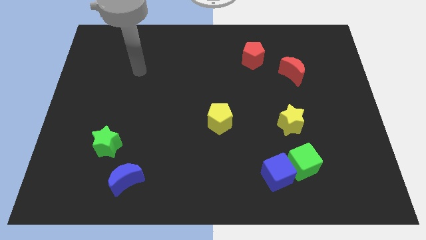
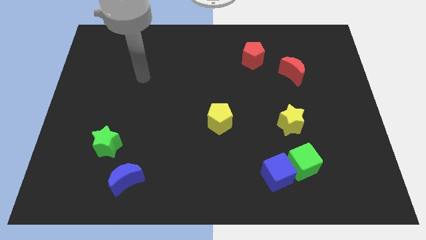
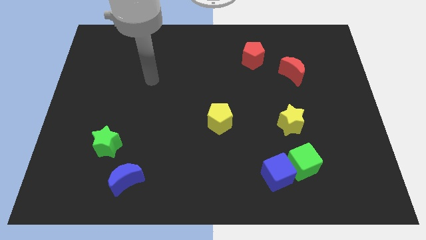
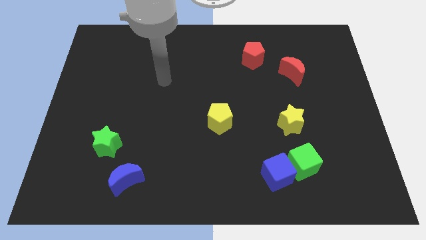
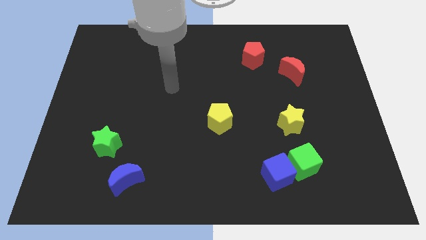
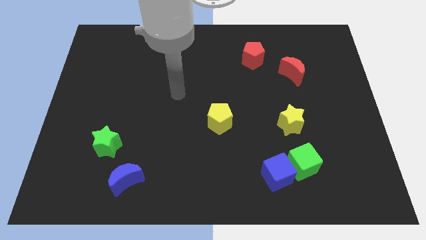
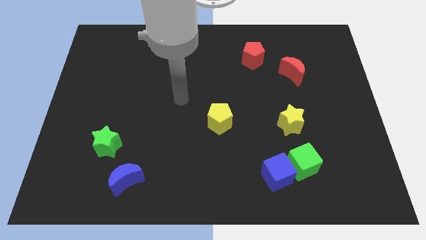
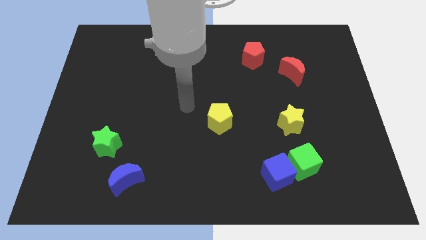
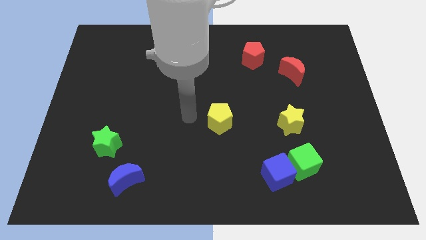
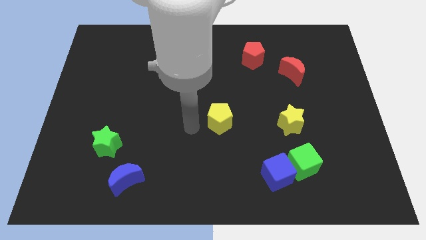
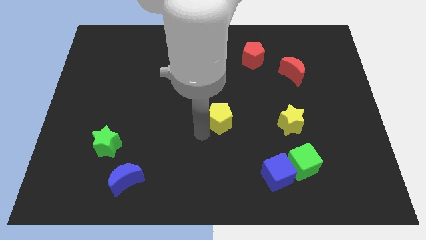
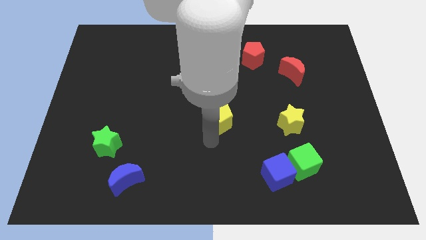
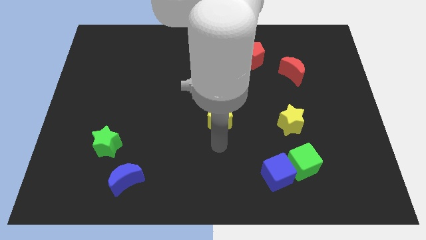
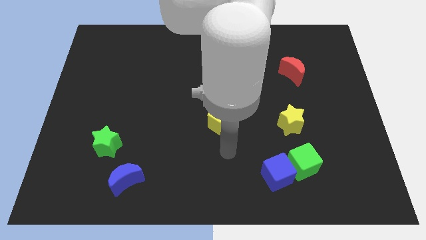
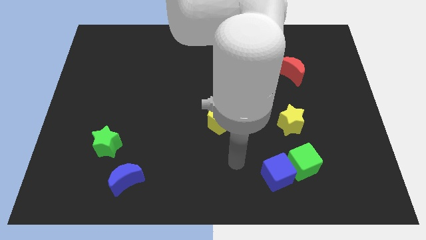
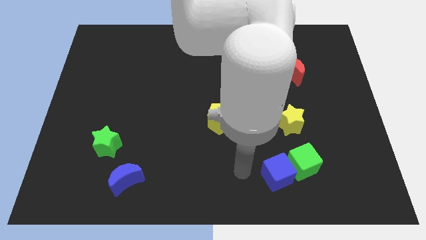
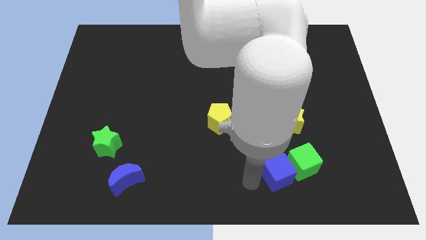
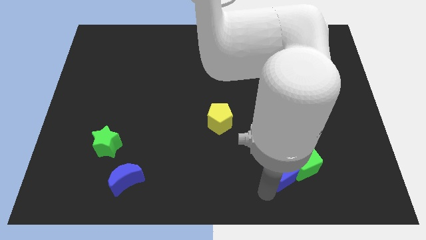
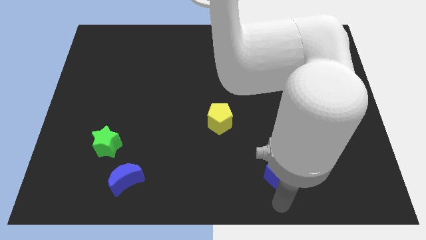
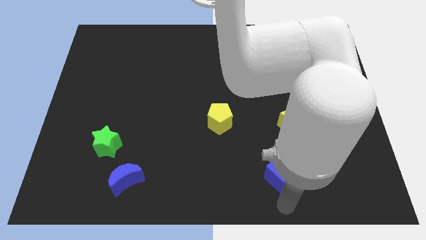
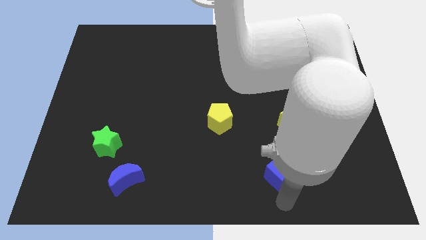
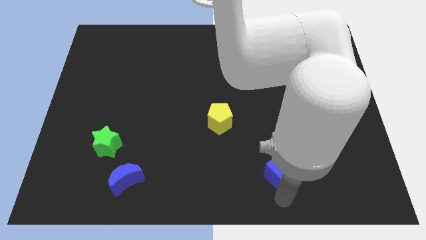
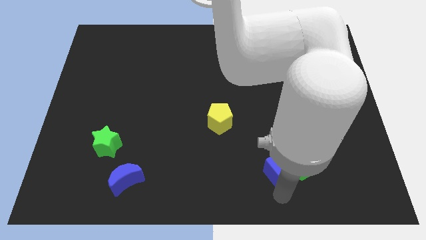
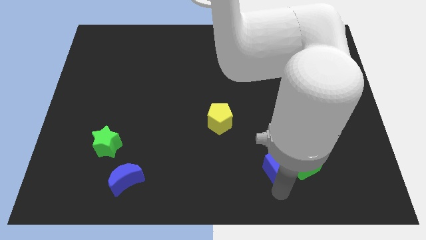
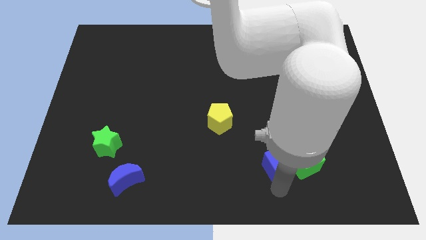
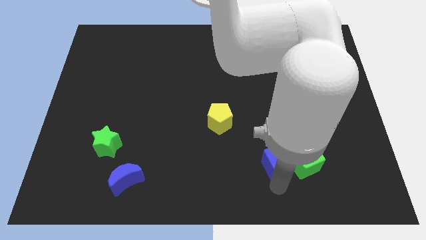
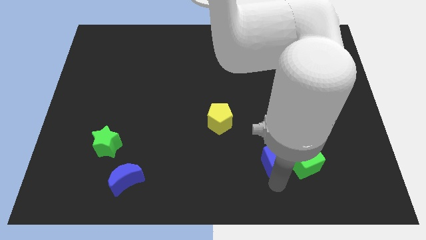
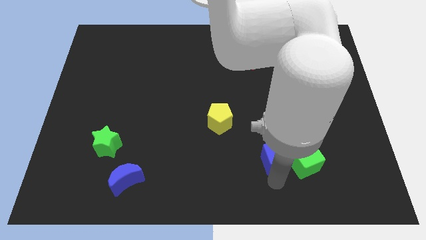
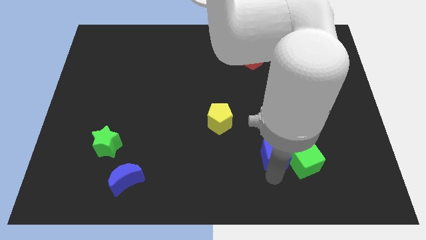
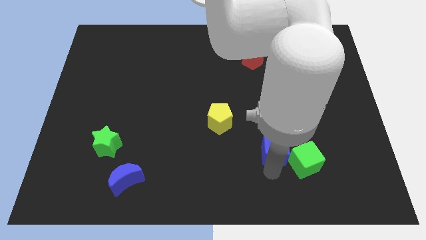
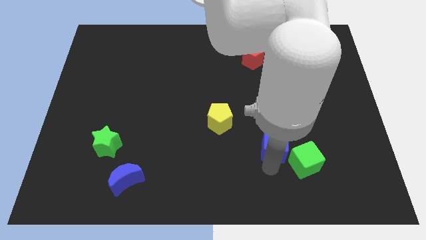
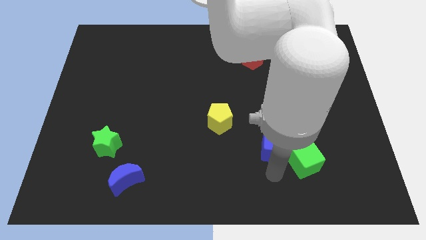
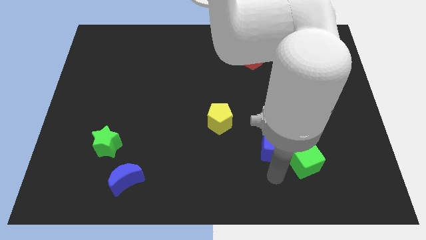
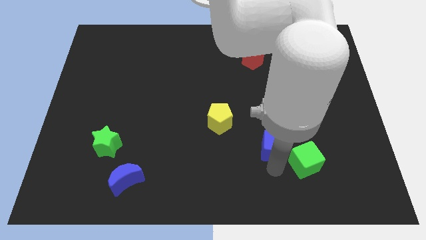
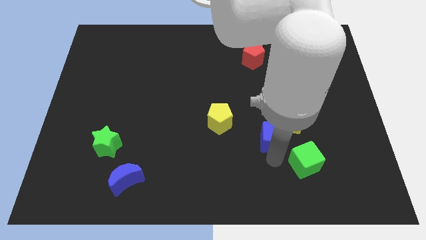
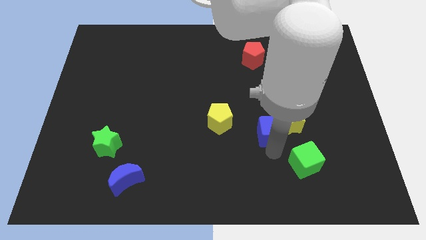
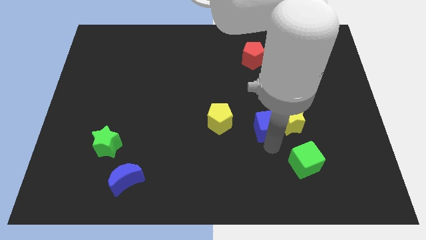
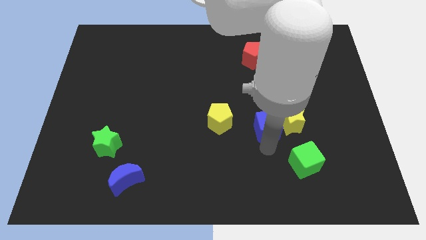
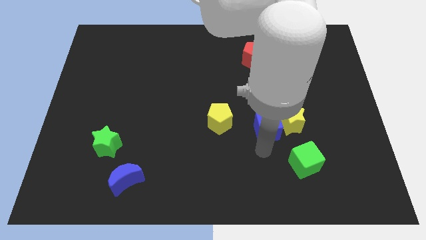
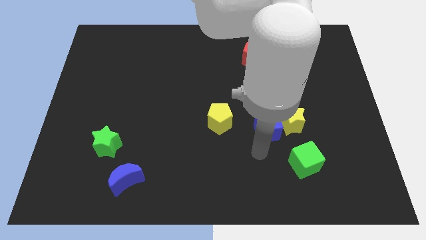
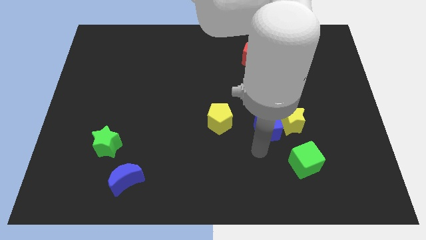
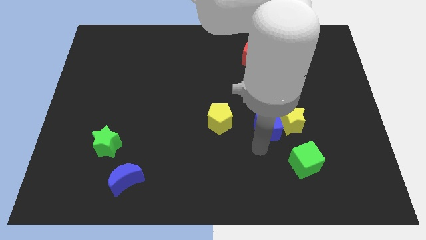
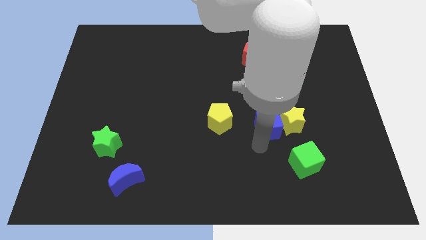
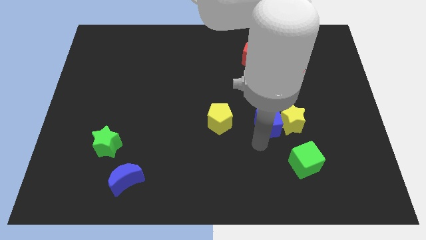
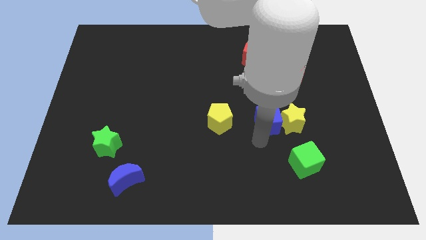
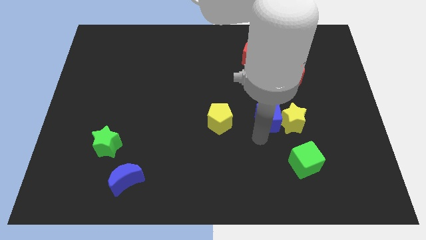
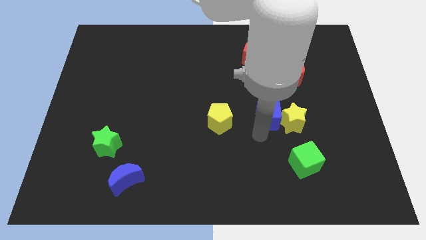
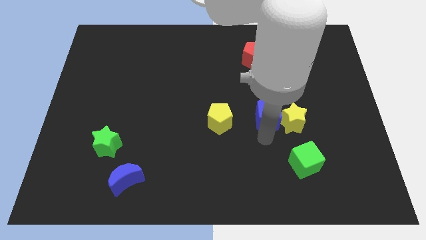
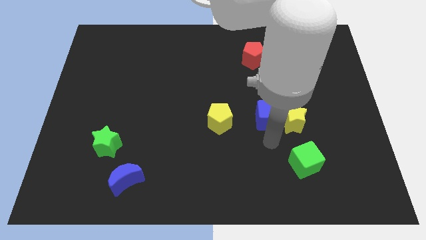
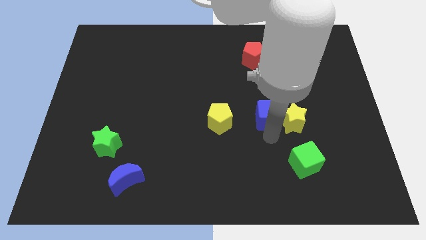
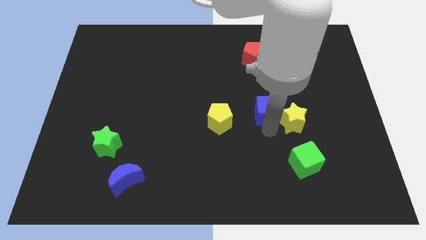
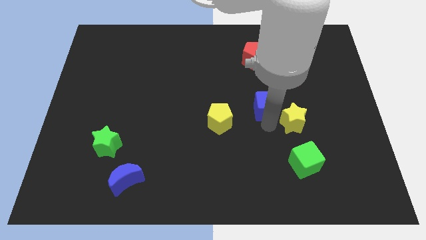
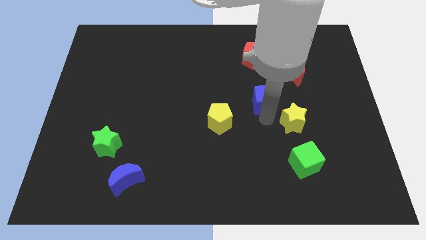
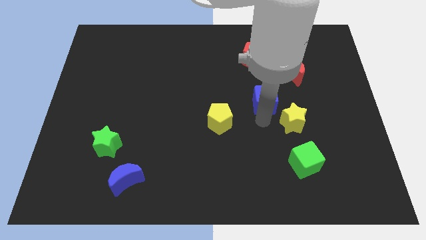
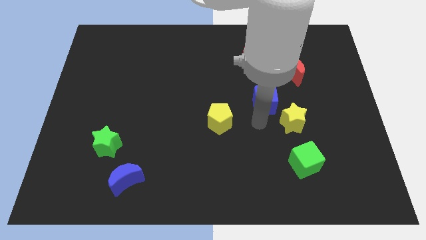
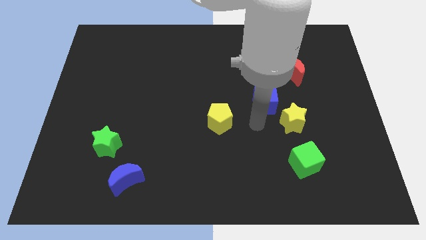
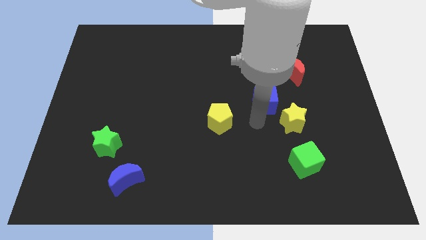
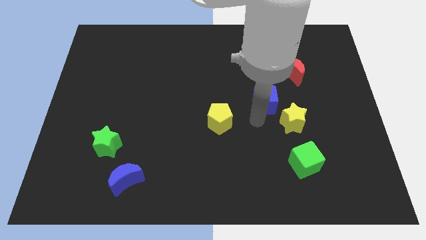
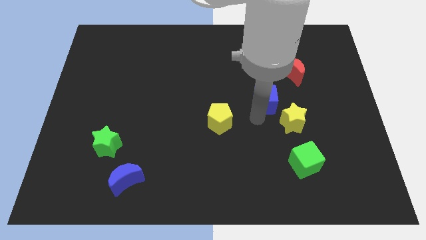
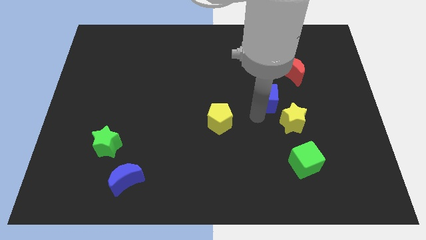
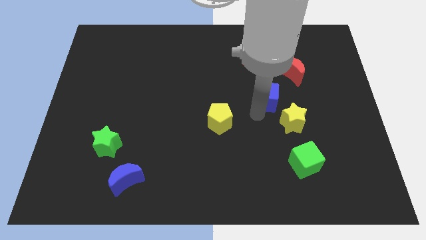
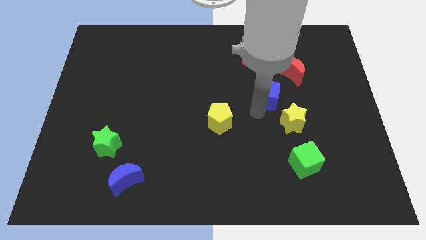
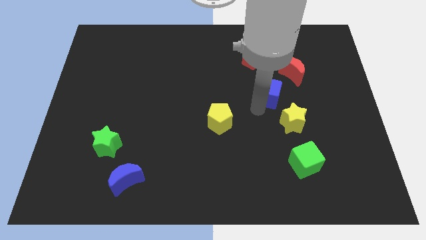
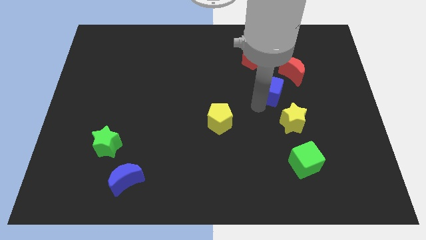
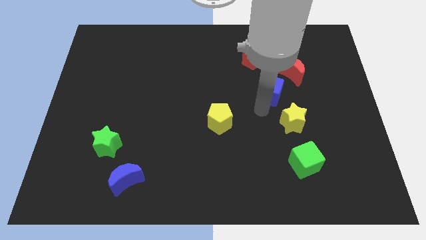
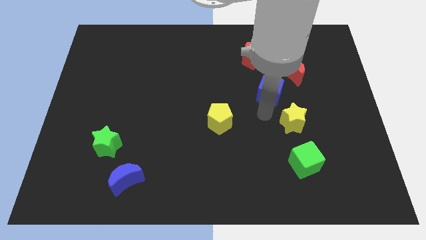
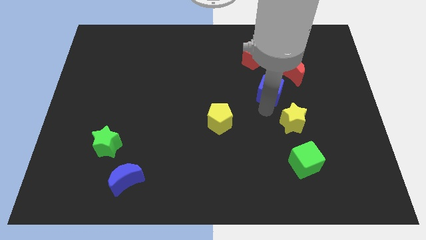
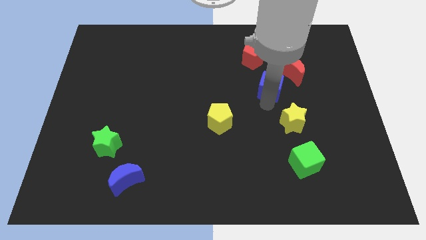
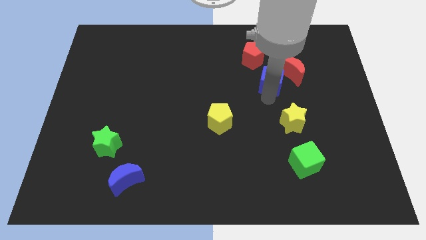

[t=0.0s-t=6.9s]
push the blue cube to the bottom right of the red pentagon
